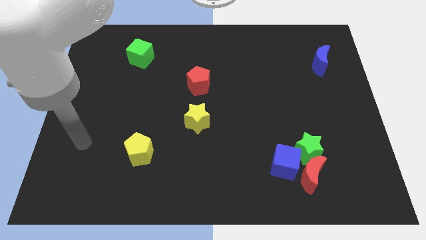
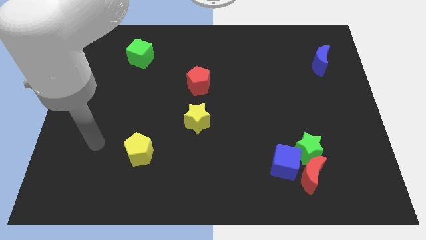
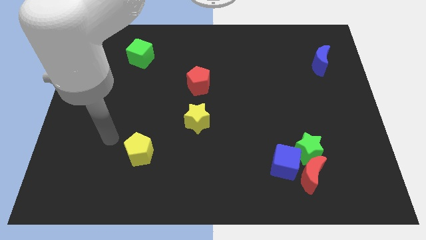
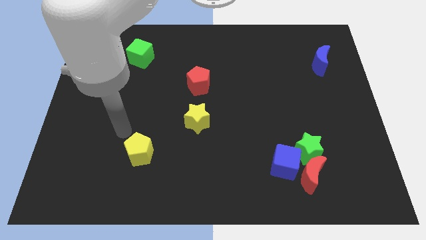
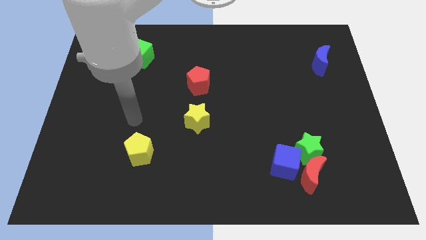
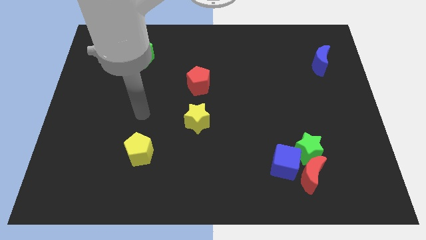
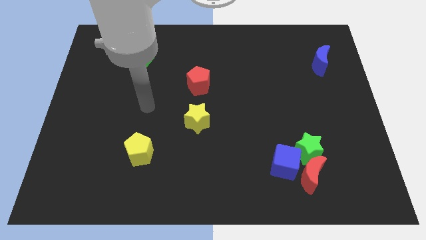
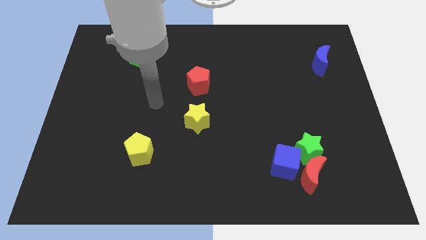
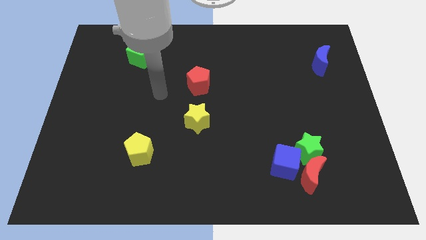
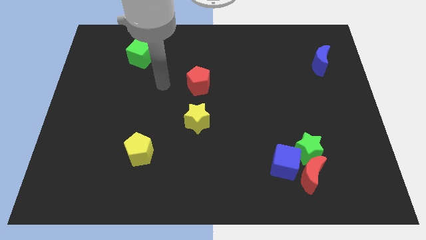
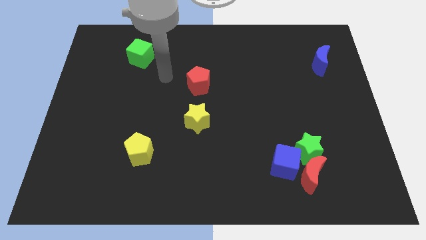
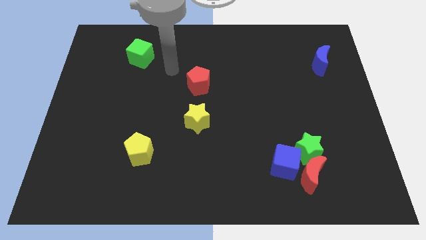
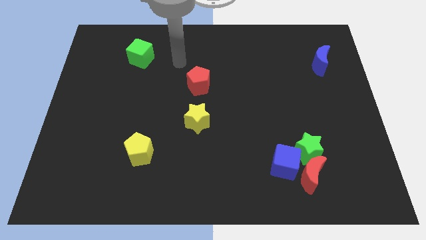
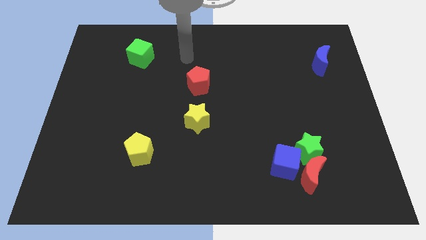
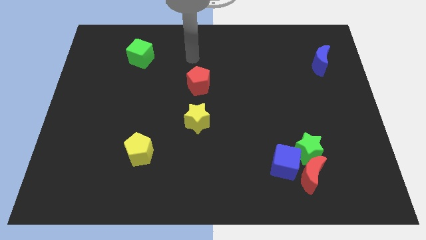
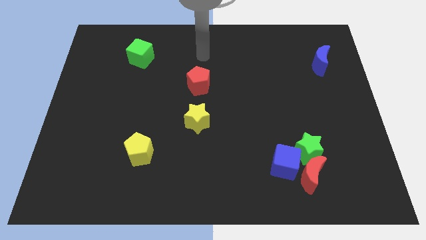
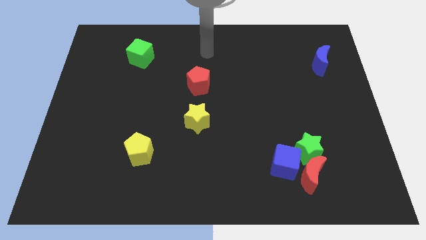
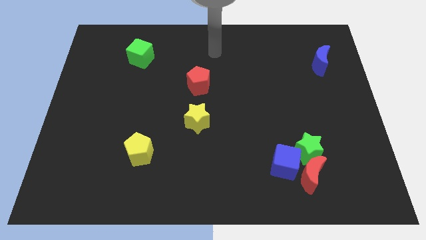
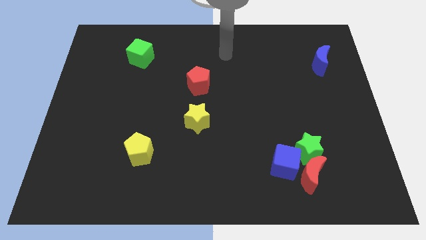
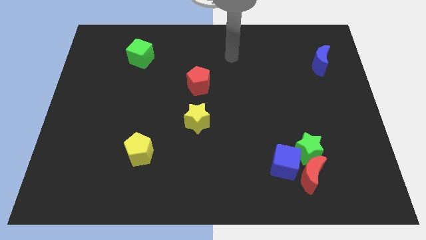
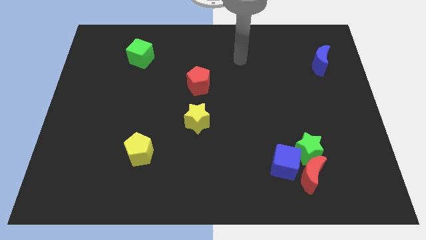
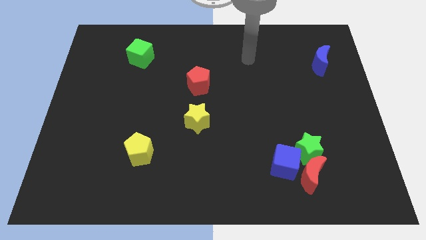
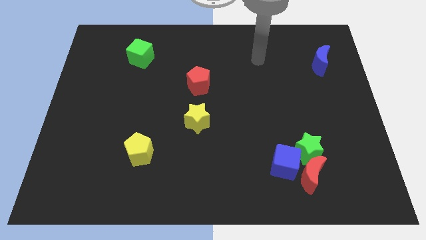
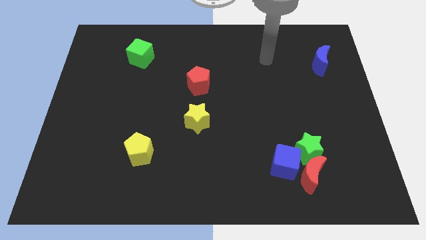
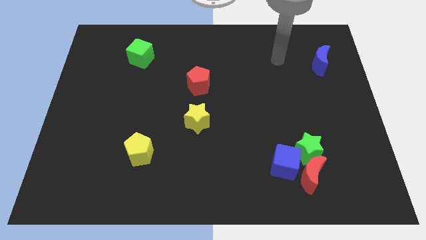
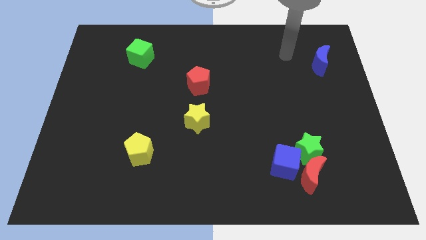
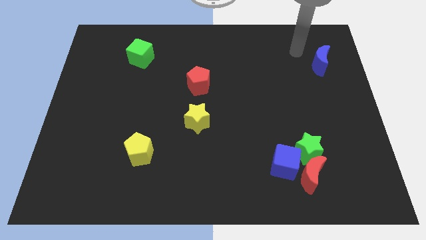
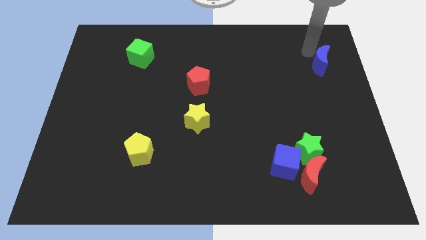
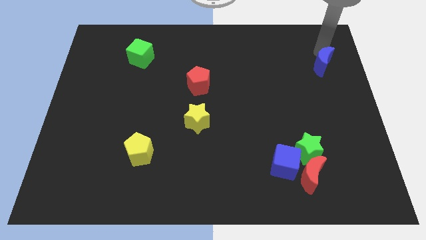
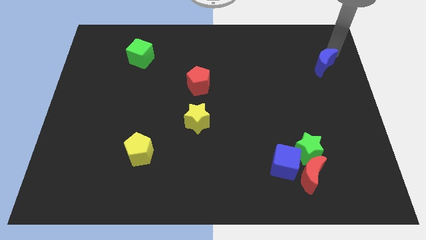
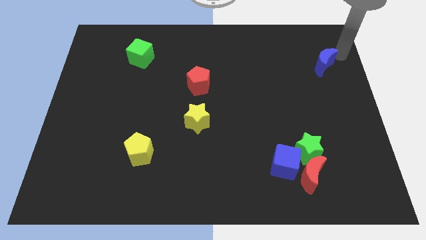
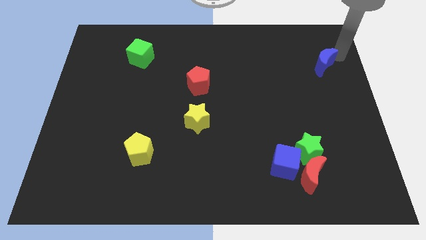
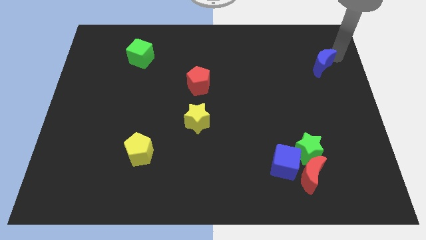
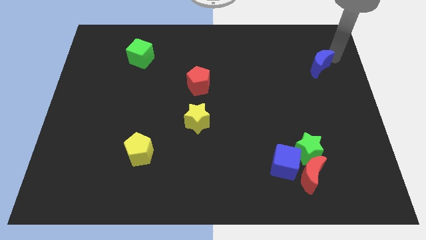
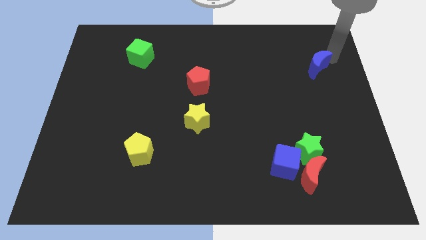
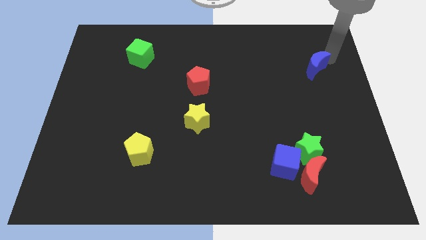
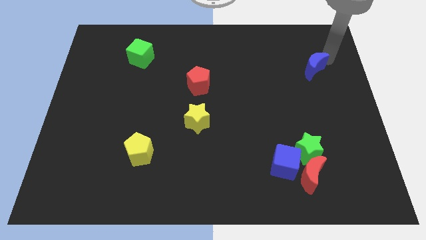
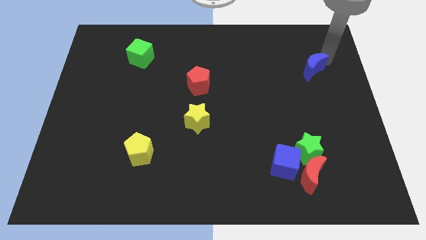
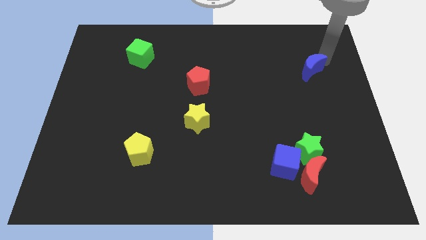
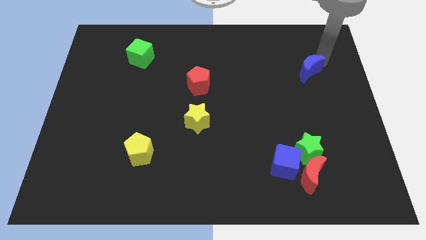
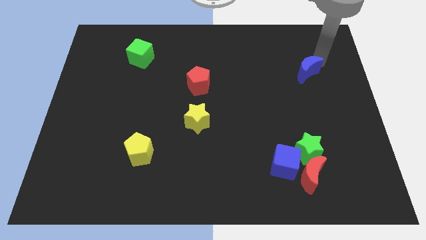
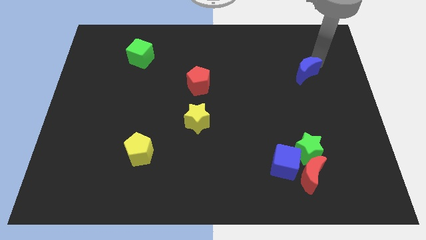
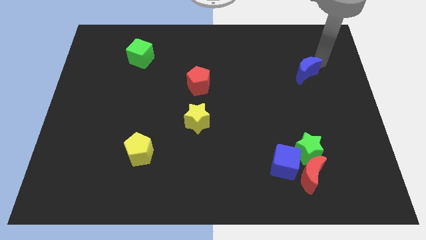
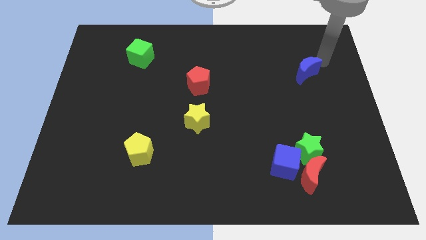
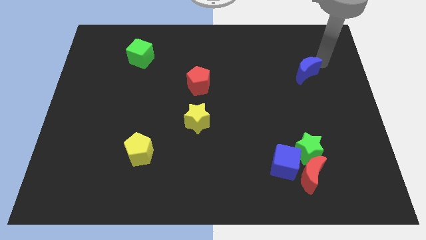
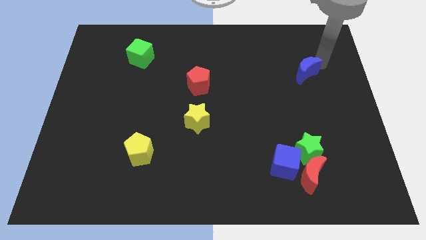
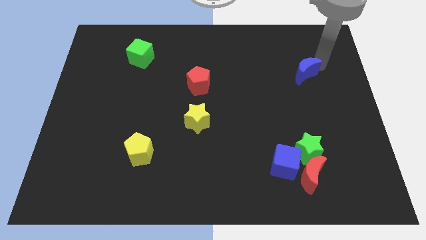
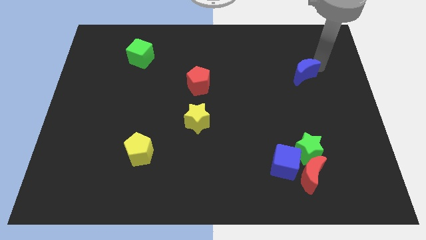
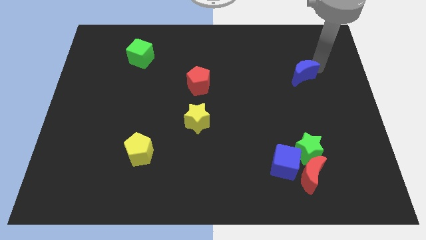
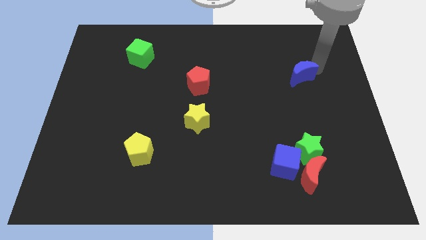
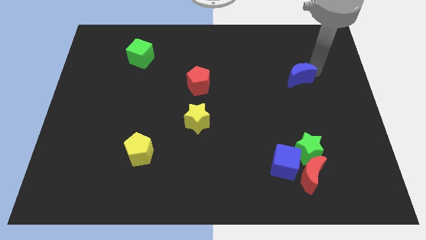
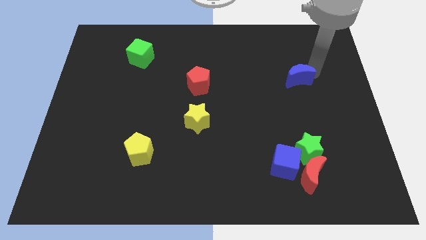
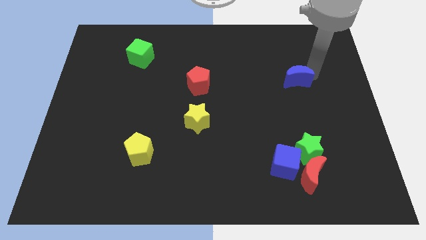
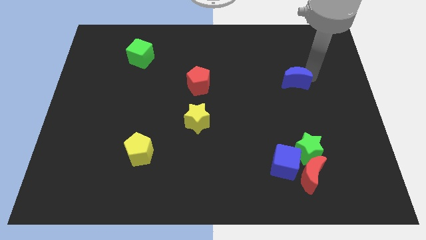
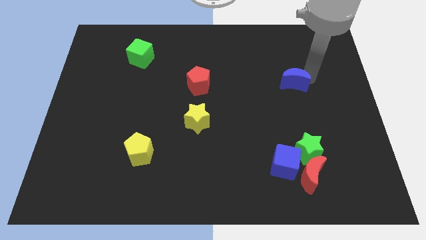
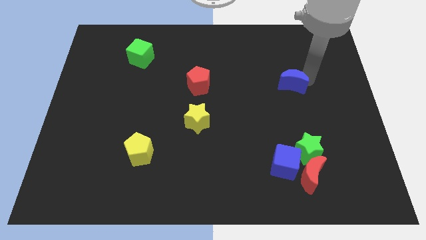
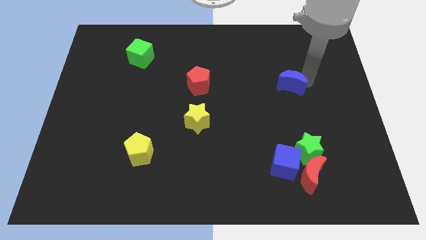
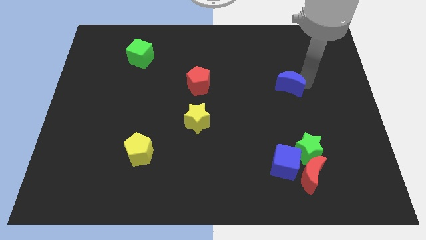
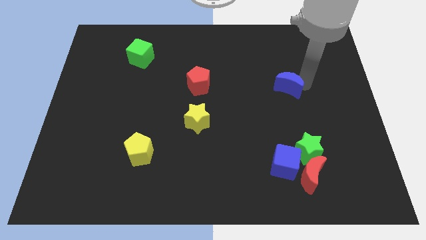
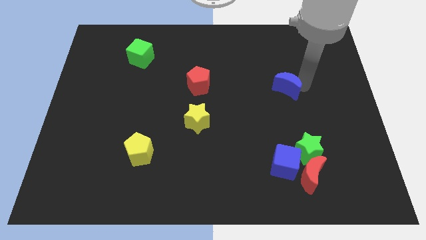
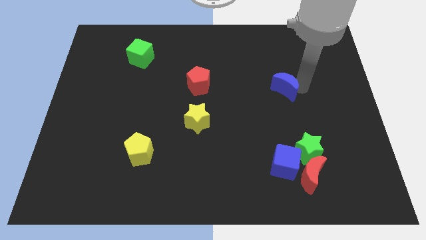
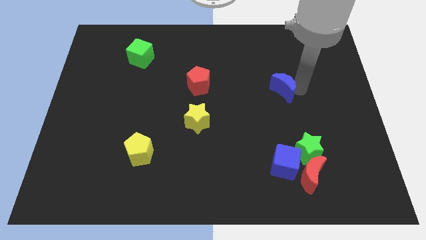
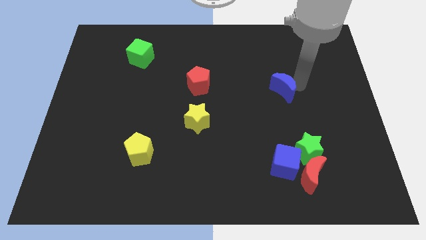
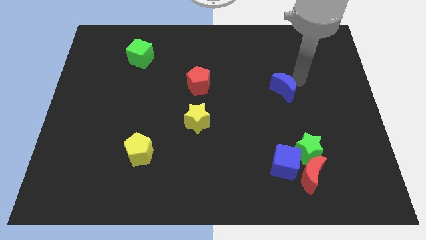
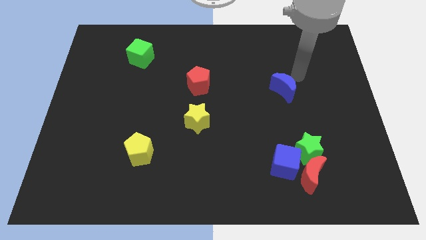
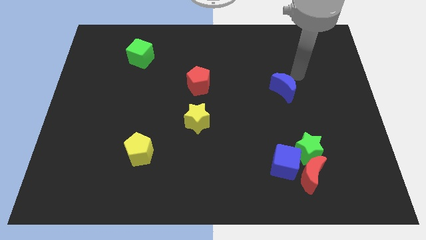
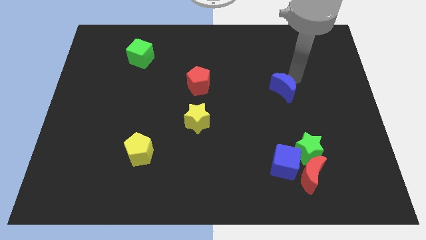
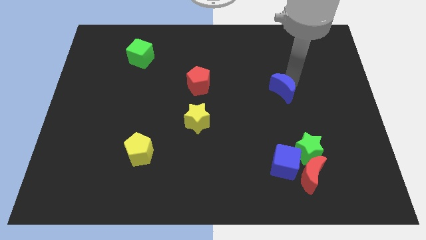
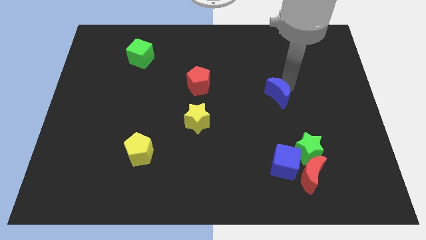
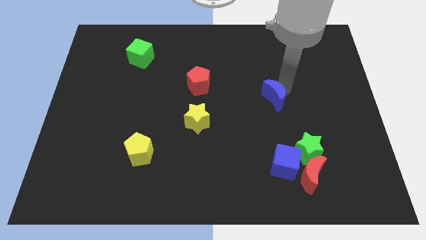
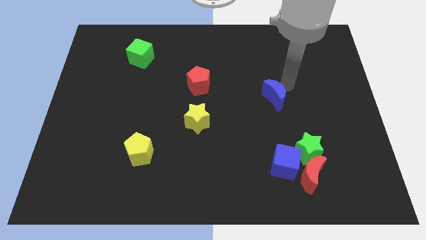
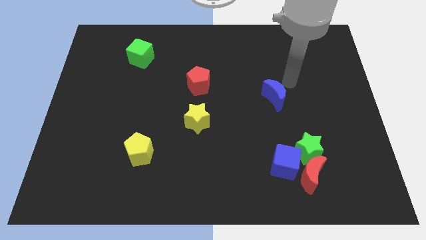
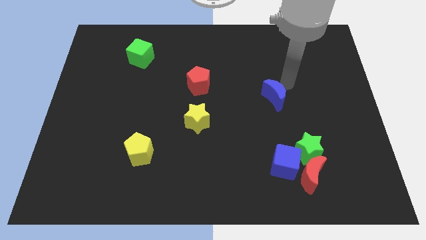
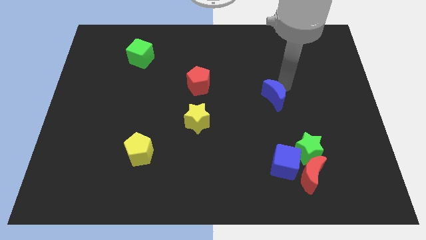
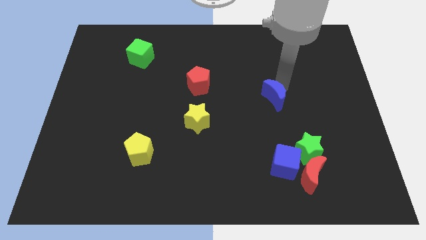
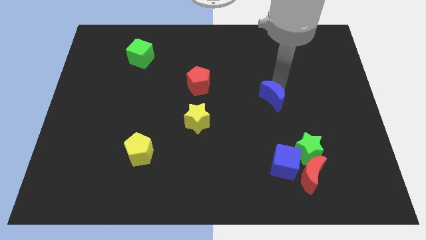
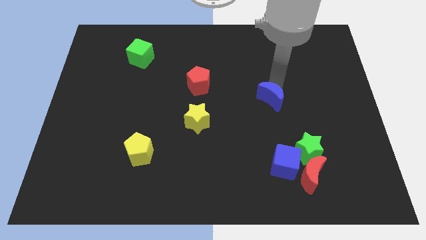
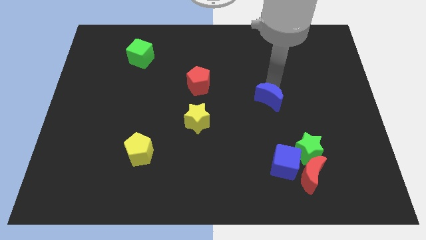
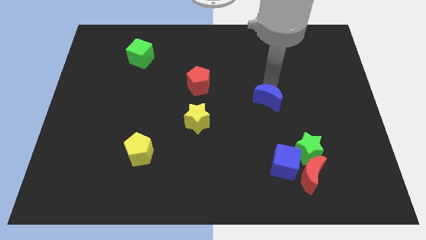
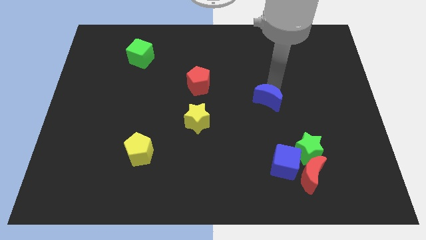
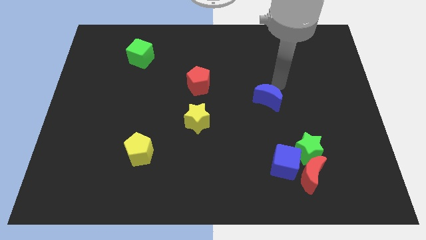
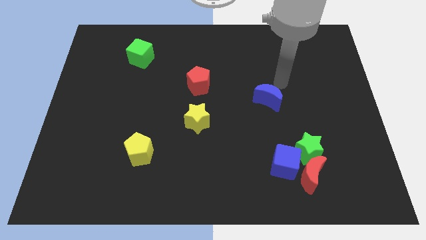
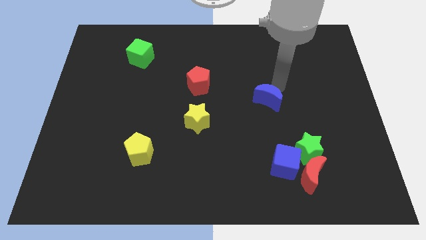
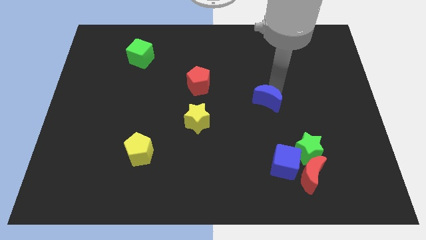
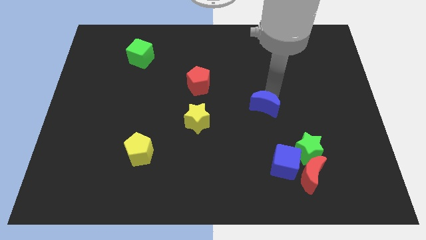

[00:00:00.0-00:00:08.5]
move the blue moon diagonally downwards and to the left
